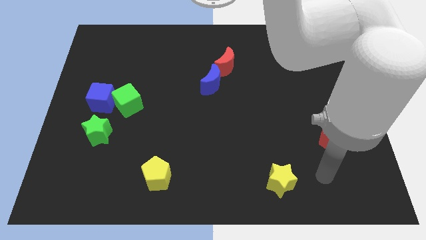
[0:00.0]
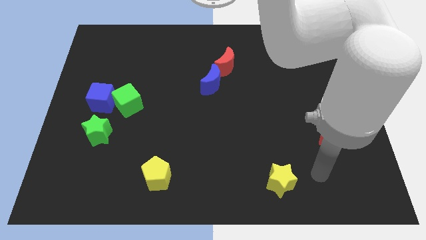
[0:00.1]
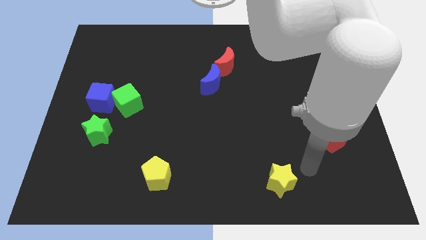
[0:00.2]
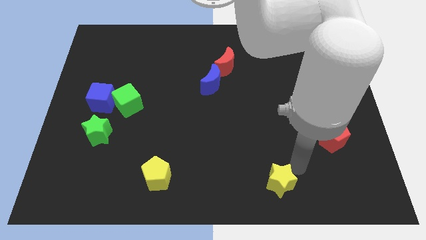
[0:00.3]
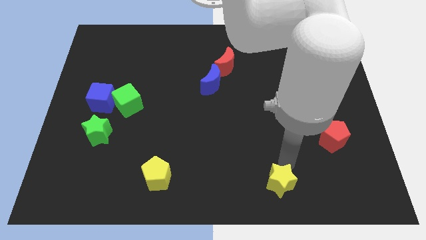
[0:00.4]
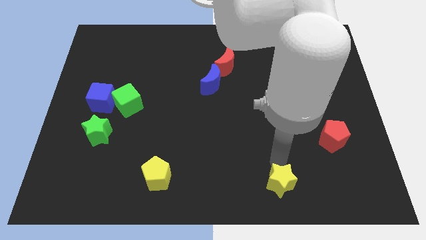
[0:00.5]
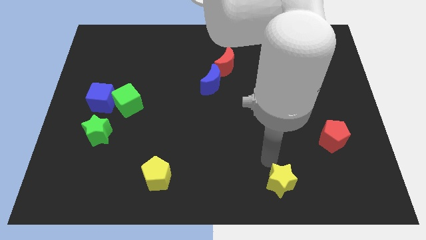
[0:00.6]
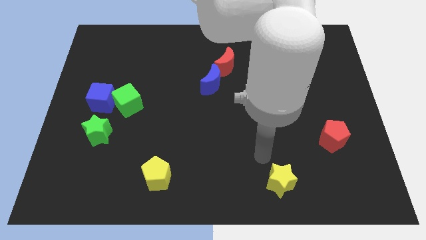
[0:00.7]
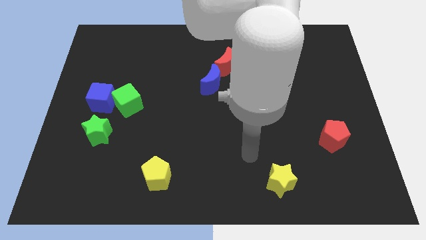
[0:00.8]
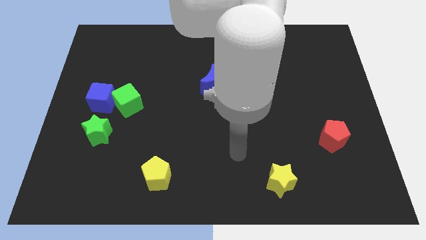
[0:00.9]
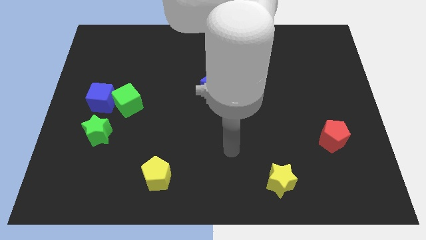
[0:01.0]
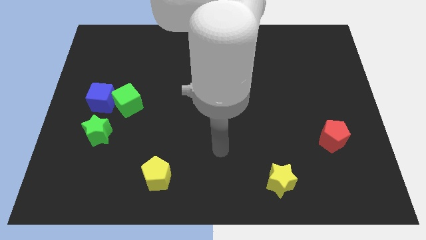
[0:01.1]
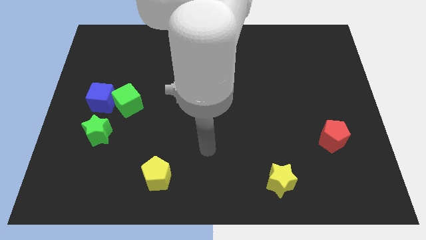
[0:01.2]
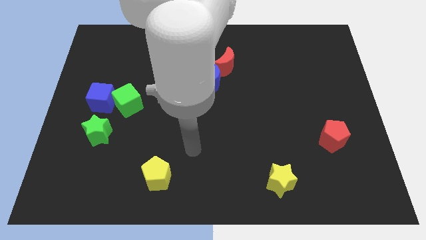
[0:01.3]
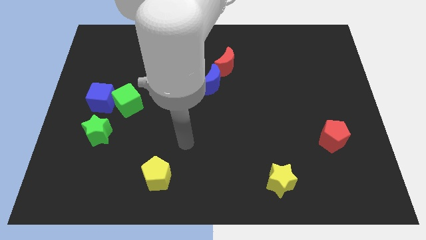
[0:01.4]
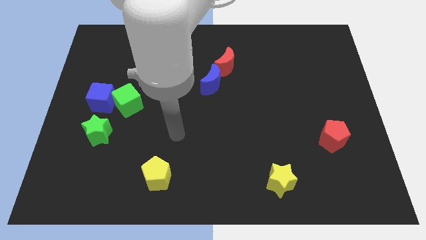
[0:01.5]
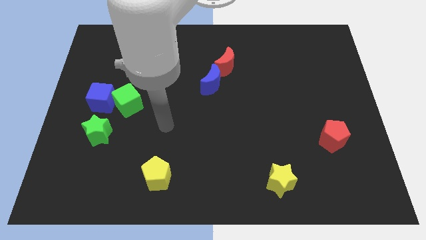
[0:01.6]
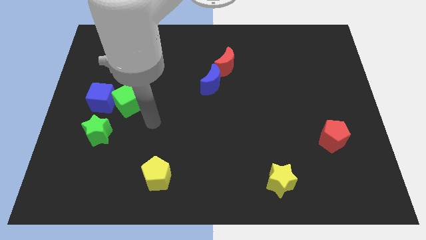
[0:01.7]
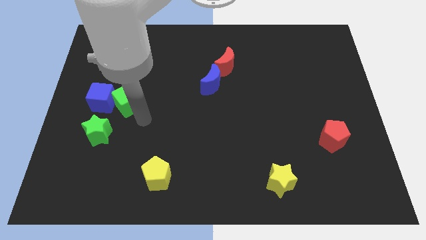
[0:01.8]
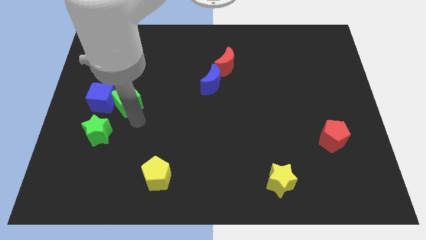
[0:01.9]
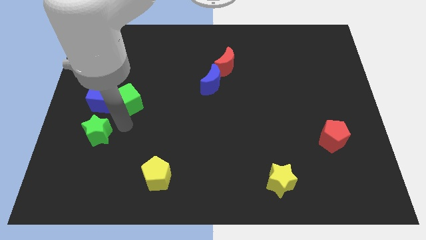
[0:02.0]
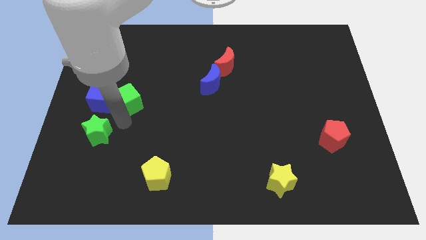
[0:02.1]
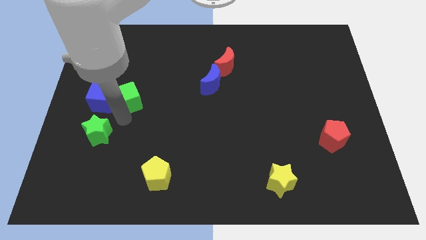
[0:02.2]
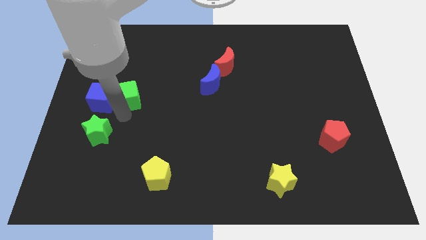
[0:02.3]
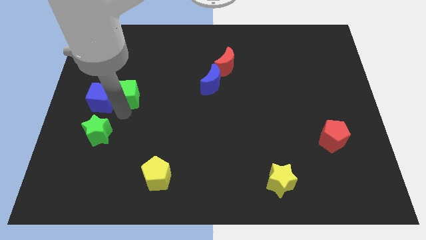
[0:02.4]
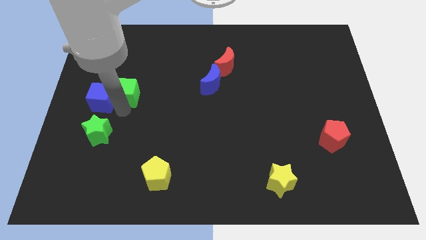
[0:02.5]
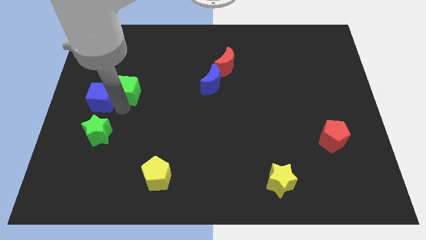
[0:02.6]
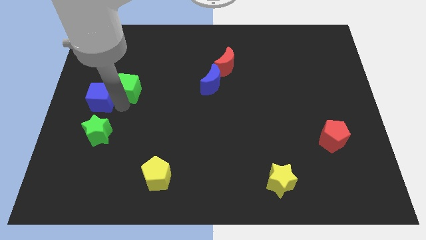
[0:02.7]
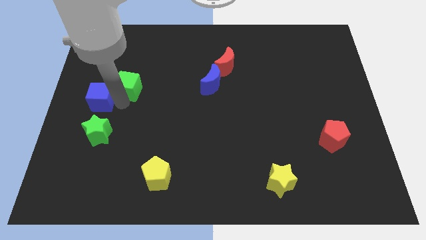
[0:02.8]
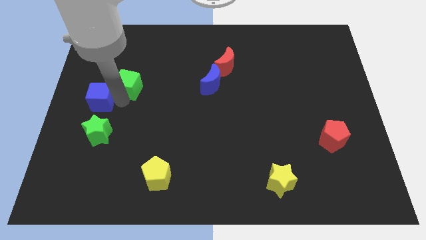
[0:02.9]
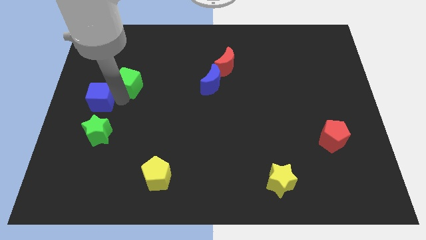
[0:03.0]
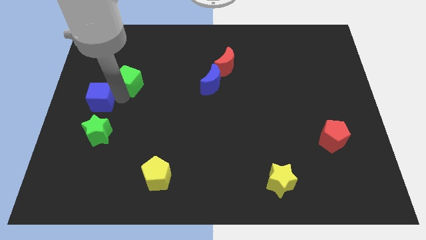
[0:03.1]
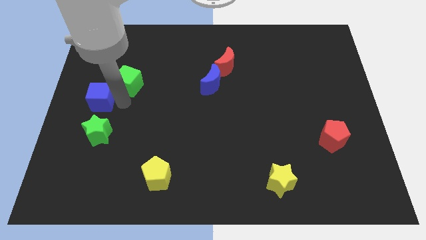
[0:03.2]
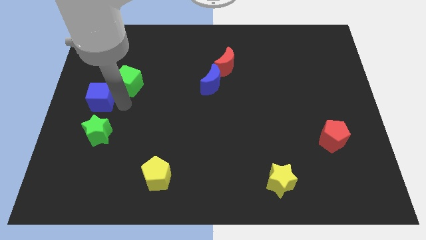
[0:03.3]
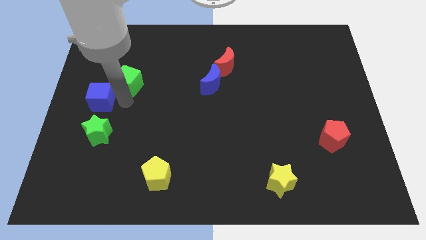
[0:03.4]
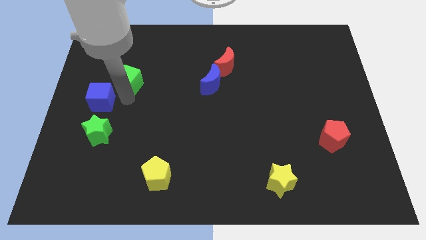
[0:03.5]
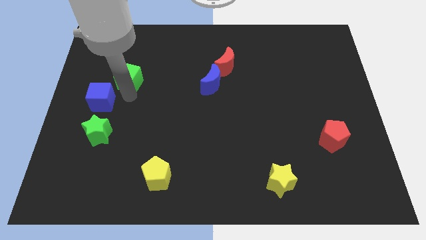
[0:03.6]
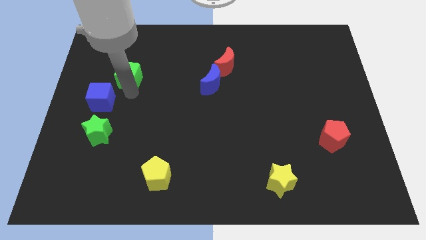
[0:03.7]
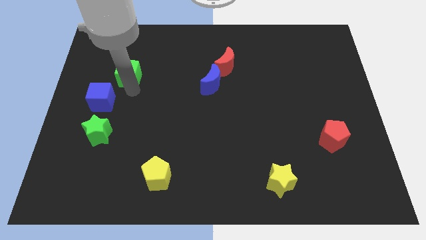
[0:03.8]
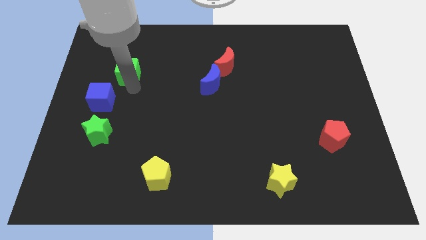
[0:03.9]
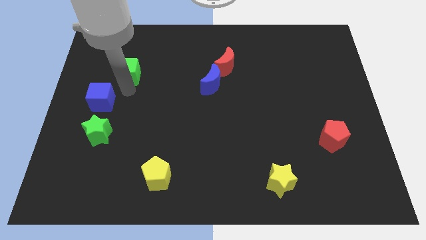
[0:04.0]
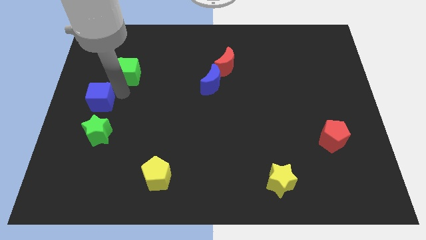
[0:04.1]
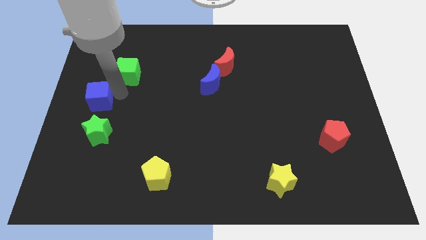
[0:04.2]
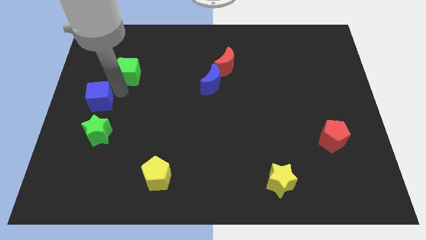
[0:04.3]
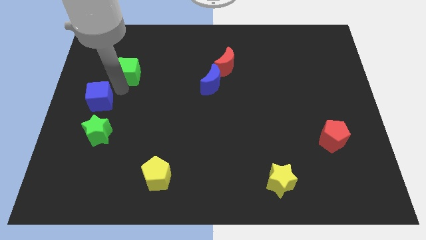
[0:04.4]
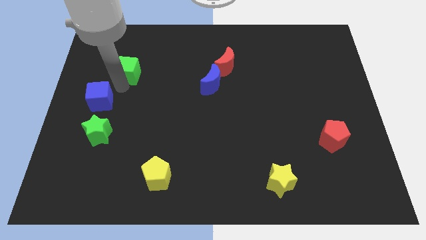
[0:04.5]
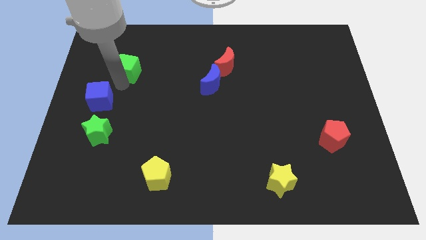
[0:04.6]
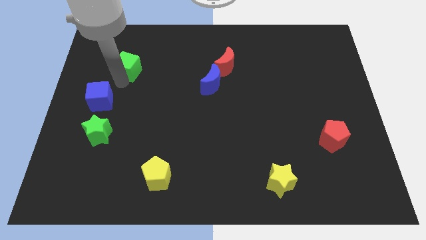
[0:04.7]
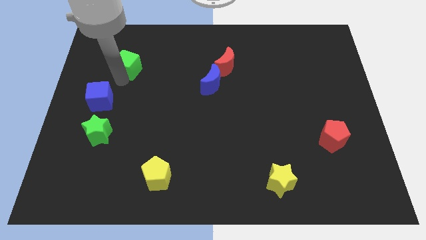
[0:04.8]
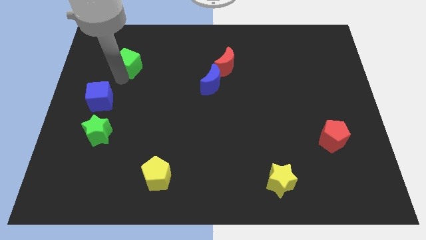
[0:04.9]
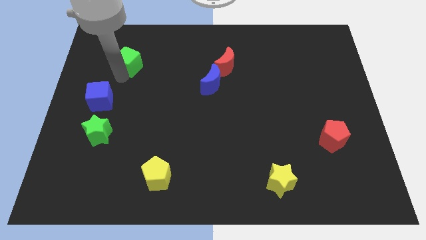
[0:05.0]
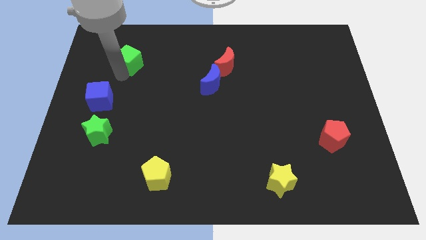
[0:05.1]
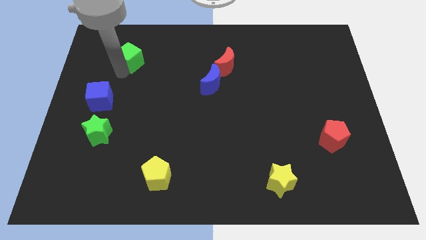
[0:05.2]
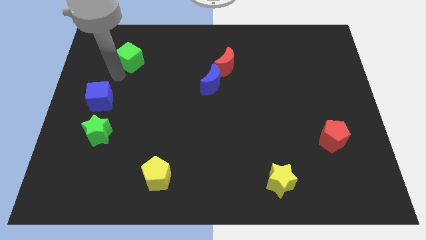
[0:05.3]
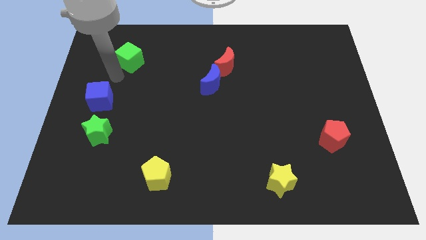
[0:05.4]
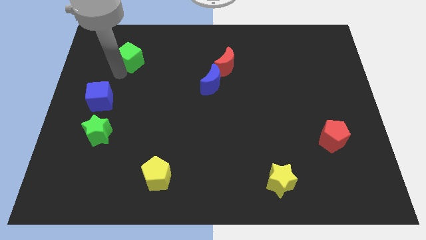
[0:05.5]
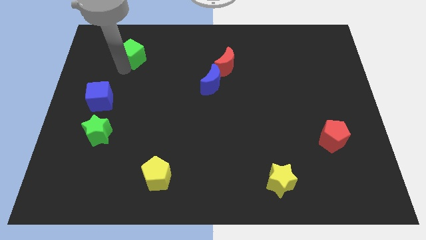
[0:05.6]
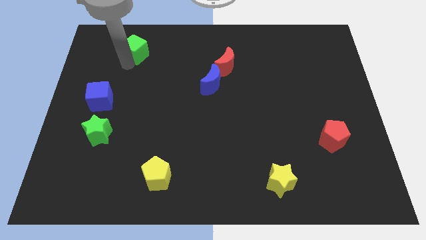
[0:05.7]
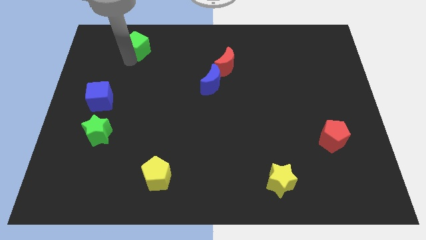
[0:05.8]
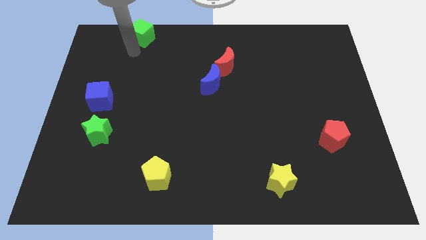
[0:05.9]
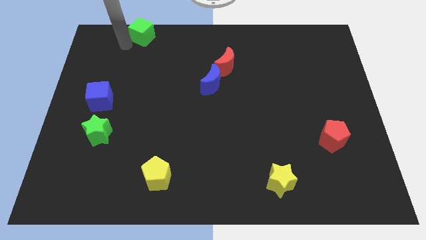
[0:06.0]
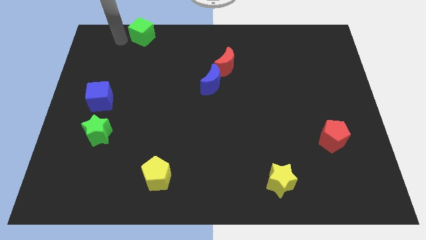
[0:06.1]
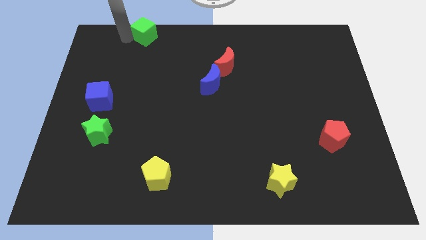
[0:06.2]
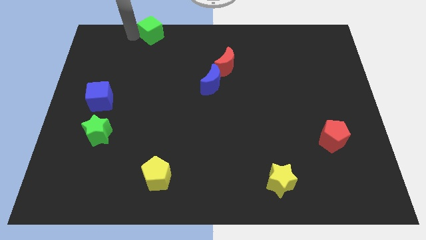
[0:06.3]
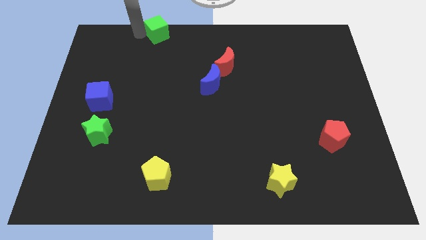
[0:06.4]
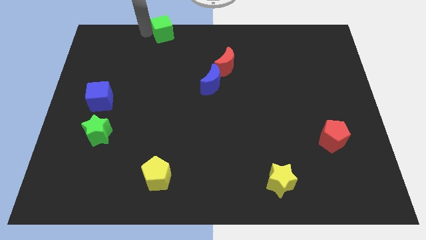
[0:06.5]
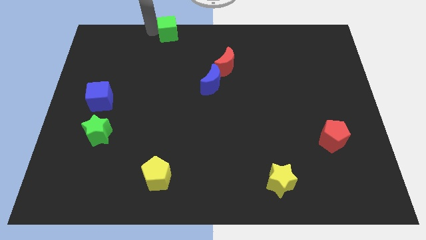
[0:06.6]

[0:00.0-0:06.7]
push the green cube to the top side

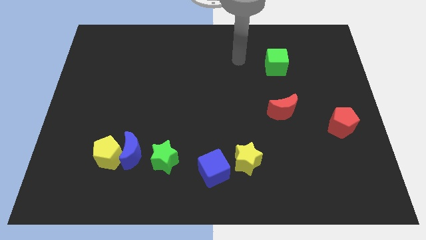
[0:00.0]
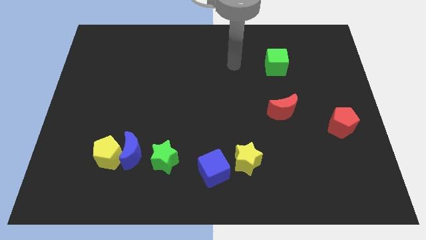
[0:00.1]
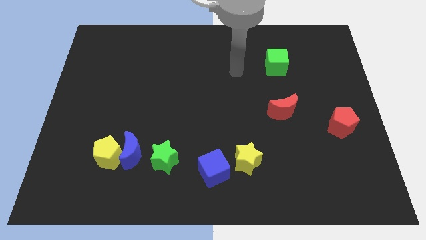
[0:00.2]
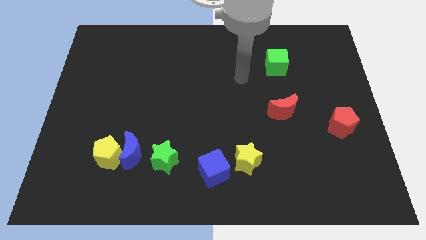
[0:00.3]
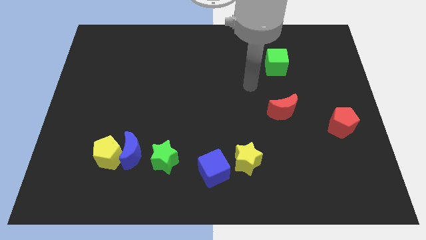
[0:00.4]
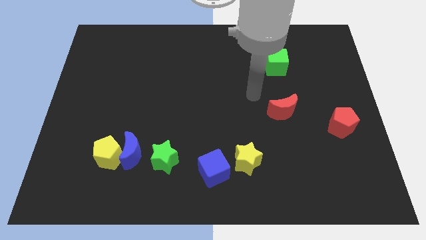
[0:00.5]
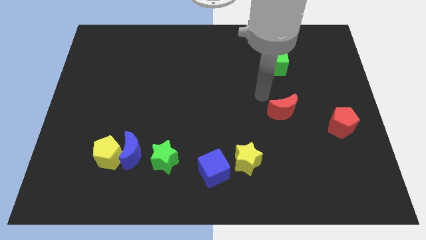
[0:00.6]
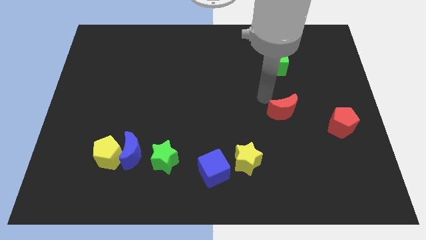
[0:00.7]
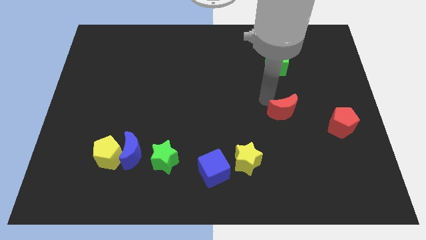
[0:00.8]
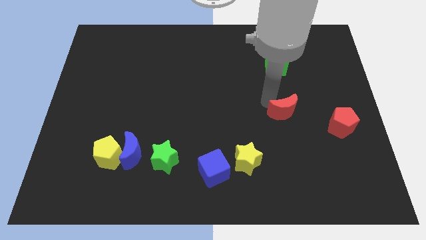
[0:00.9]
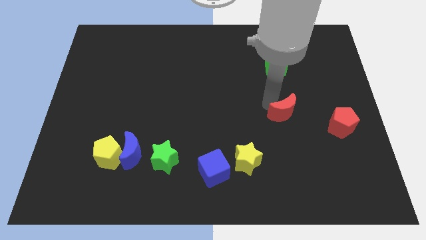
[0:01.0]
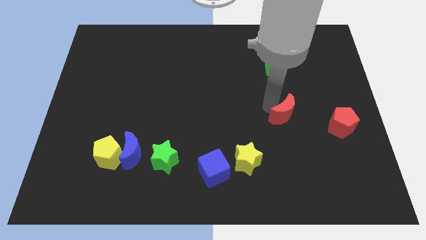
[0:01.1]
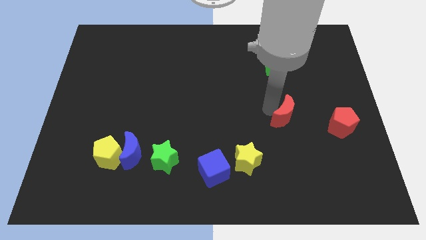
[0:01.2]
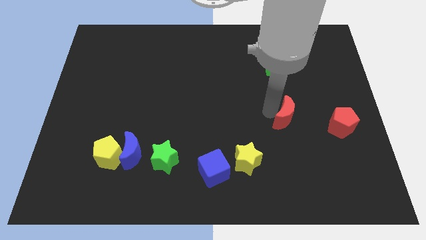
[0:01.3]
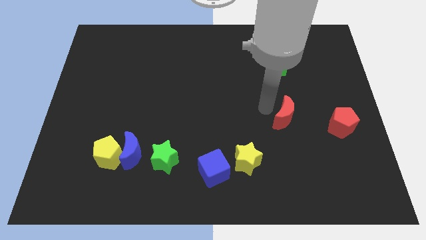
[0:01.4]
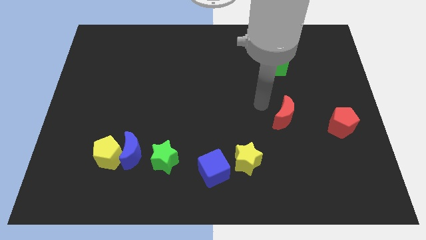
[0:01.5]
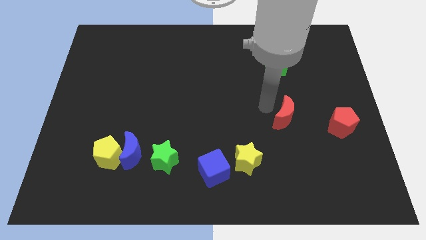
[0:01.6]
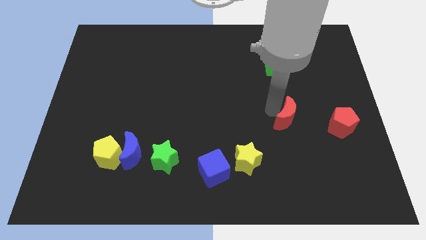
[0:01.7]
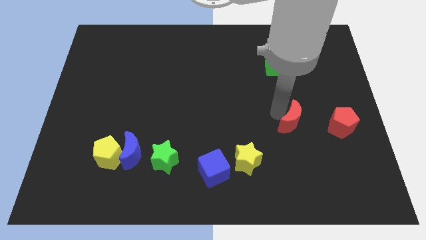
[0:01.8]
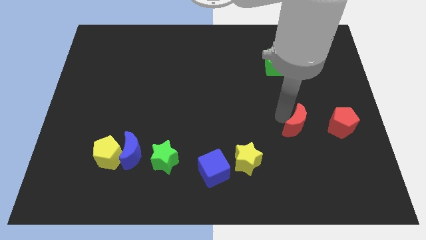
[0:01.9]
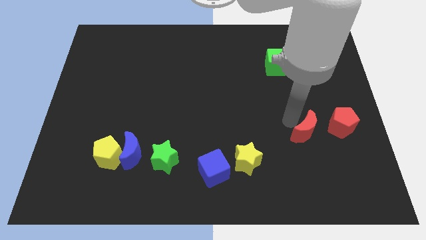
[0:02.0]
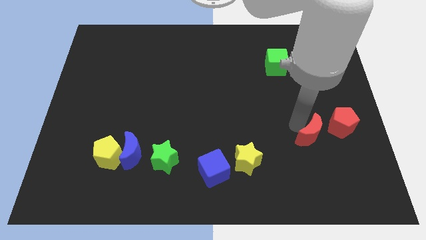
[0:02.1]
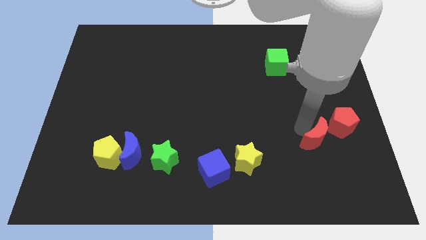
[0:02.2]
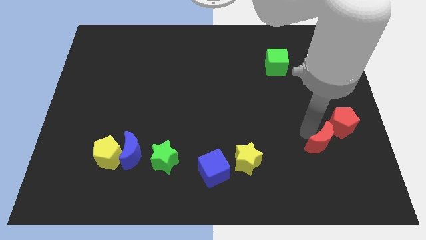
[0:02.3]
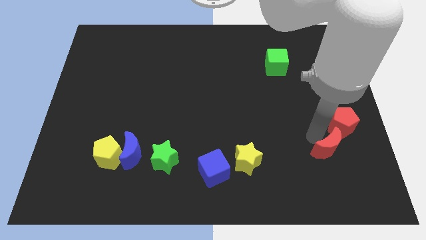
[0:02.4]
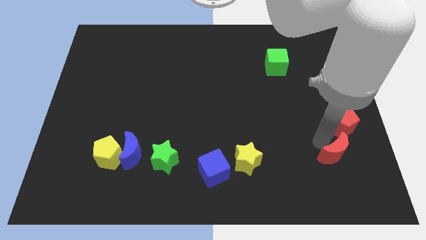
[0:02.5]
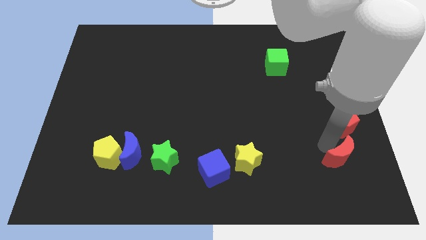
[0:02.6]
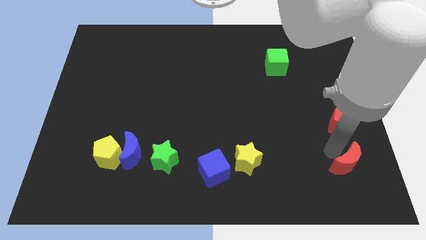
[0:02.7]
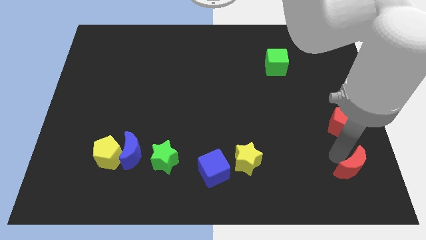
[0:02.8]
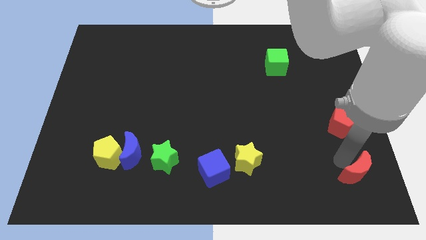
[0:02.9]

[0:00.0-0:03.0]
put the red moon to the lower right corner
